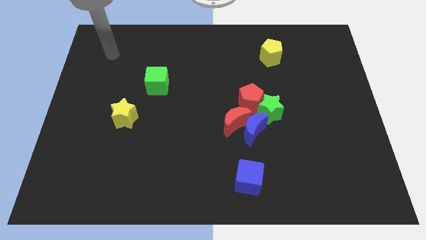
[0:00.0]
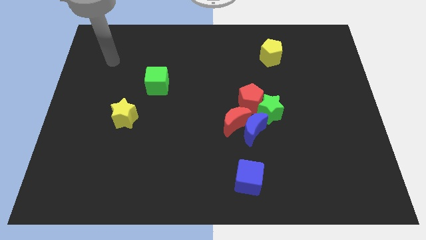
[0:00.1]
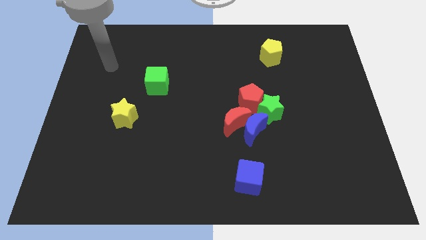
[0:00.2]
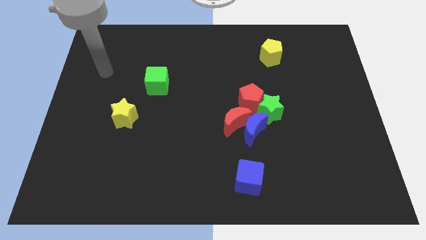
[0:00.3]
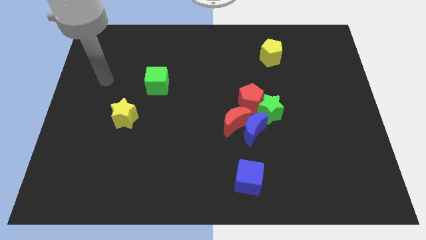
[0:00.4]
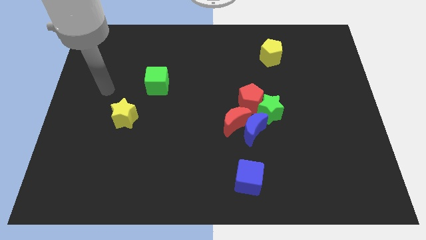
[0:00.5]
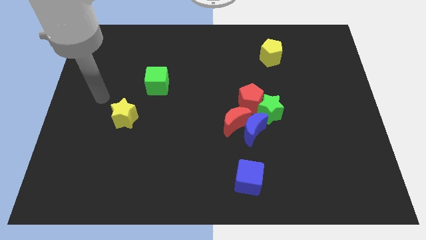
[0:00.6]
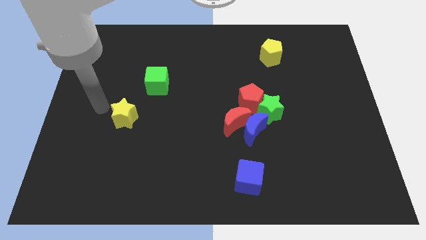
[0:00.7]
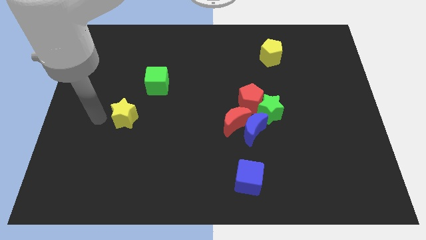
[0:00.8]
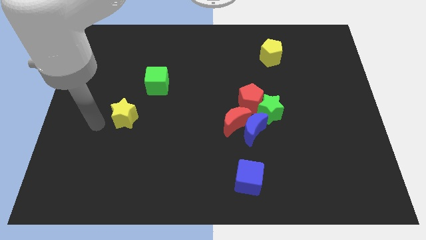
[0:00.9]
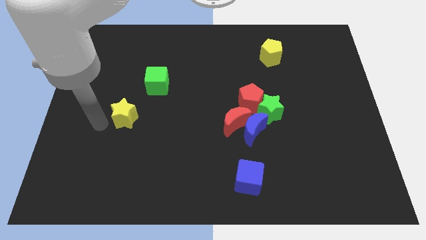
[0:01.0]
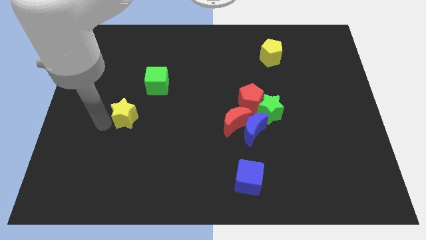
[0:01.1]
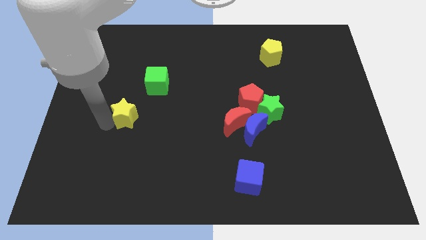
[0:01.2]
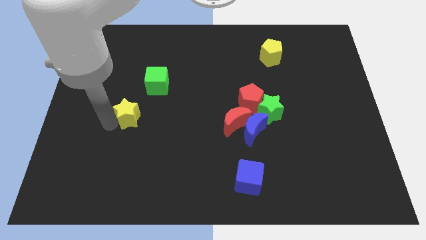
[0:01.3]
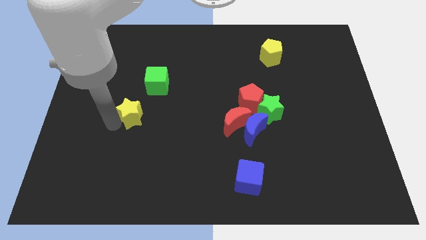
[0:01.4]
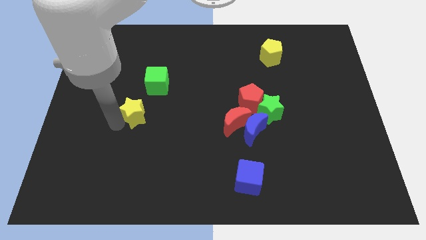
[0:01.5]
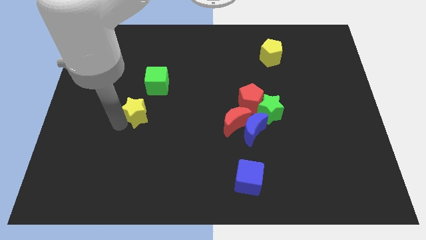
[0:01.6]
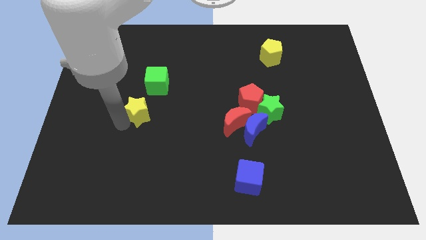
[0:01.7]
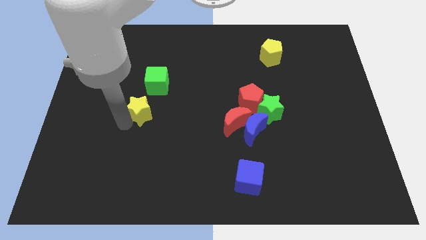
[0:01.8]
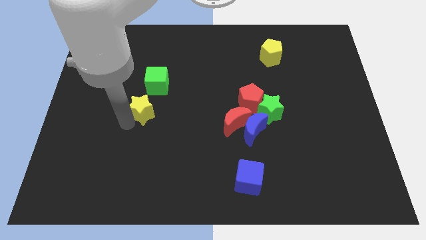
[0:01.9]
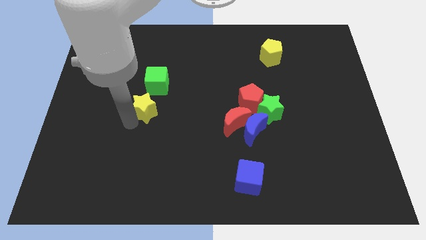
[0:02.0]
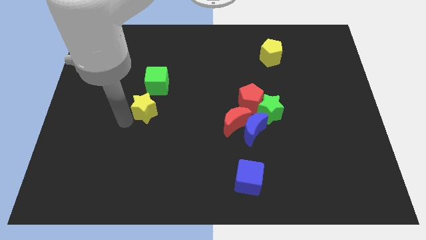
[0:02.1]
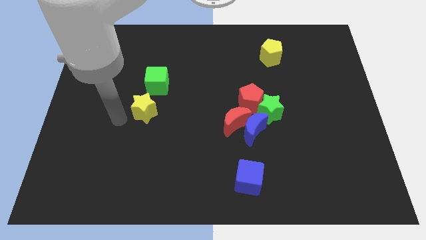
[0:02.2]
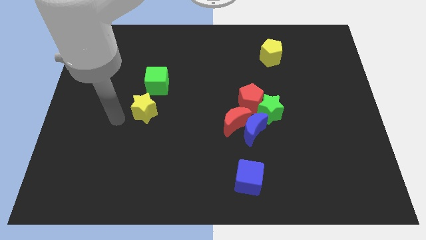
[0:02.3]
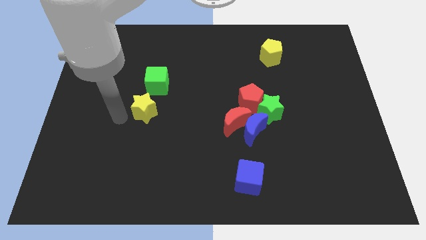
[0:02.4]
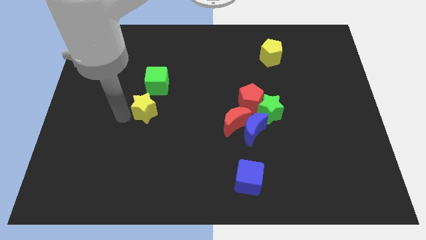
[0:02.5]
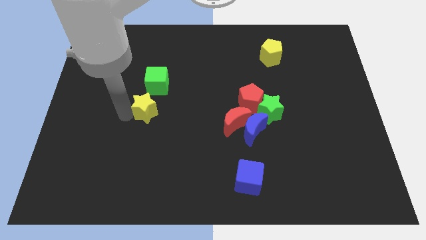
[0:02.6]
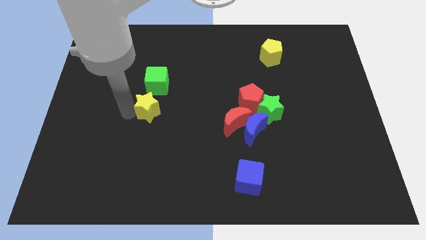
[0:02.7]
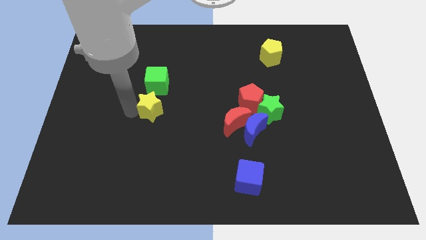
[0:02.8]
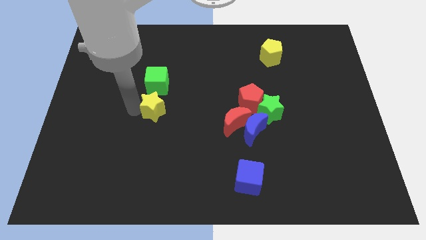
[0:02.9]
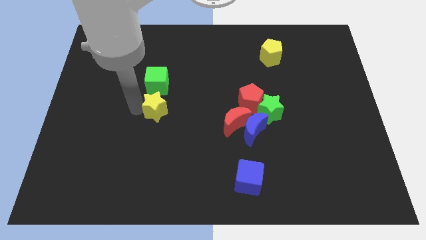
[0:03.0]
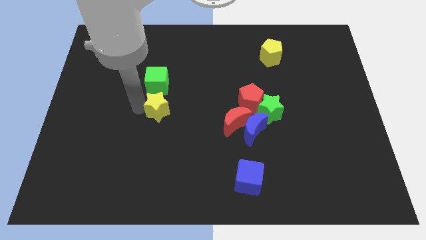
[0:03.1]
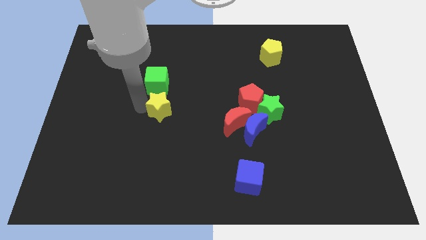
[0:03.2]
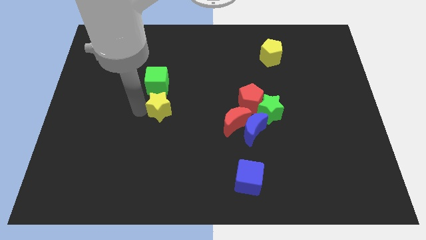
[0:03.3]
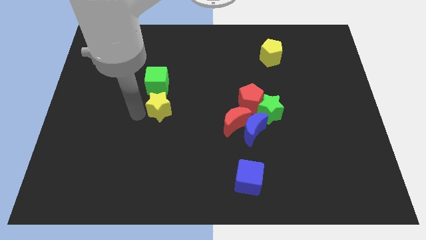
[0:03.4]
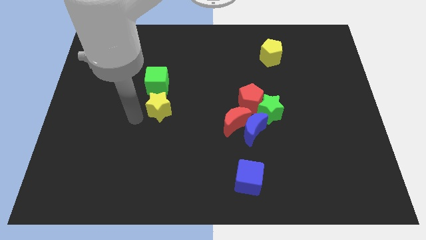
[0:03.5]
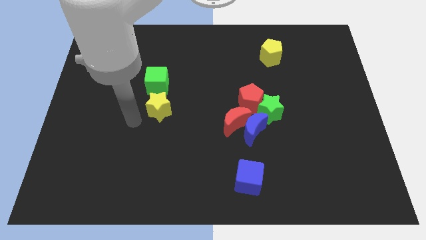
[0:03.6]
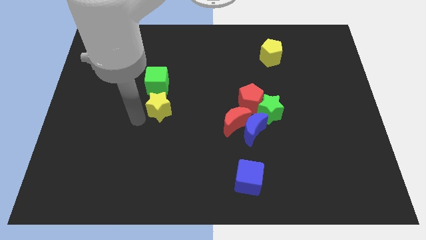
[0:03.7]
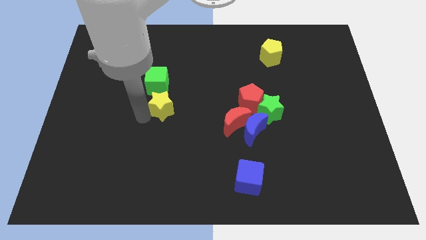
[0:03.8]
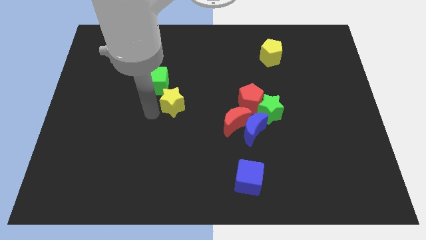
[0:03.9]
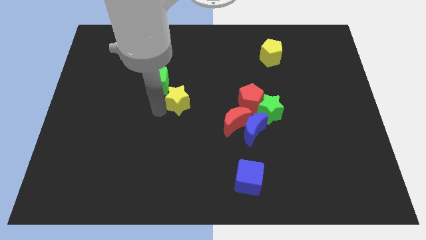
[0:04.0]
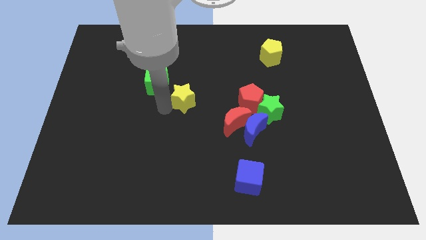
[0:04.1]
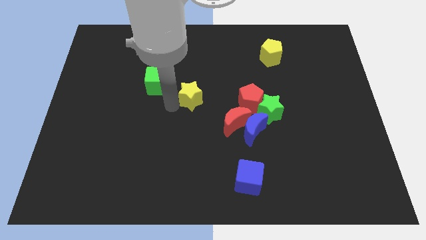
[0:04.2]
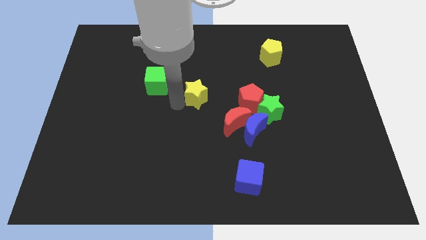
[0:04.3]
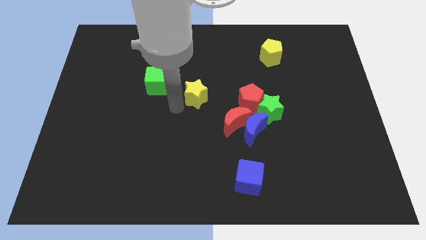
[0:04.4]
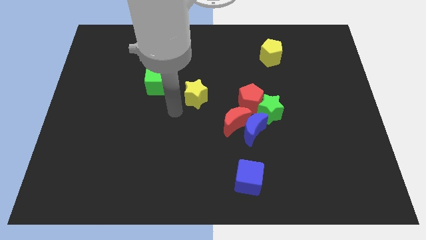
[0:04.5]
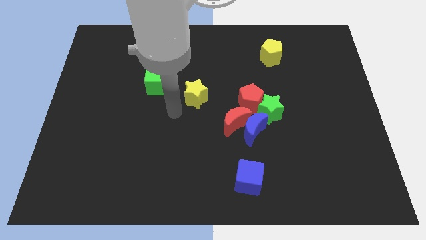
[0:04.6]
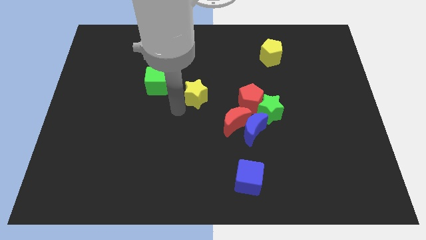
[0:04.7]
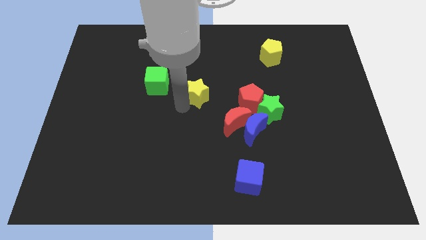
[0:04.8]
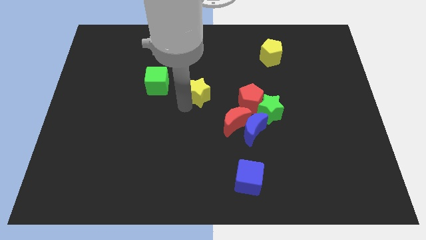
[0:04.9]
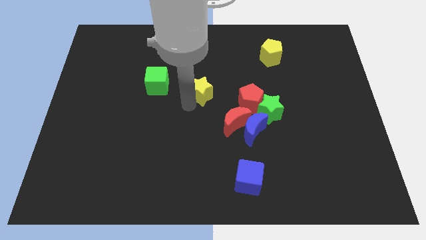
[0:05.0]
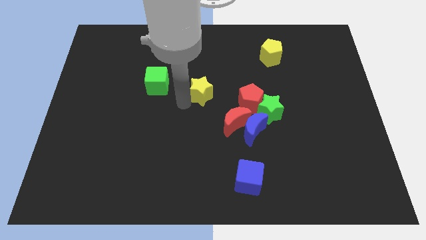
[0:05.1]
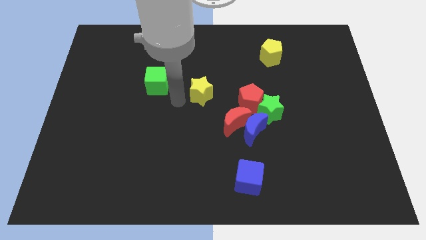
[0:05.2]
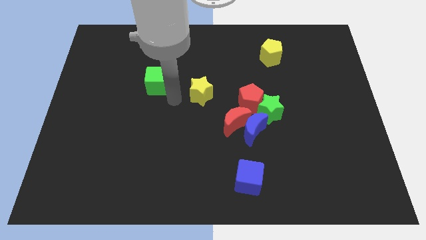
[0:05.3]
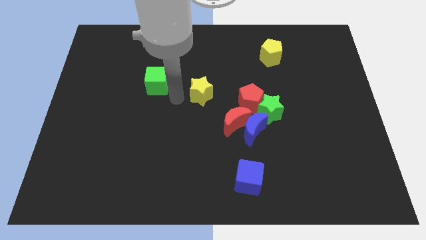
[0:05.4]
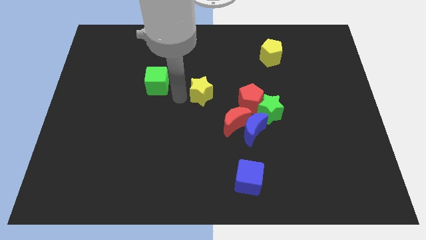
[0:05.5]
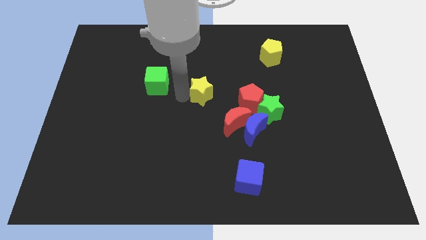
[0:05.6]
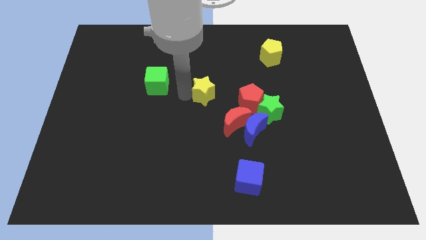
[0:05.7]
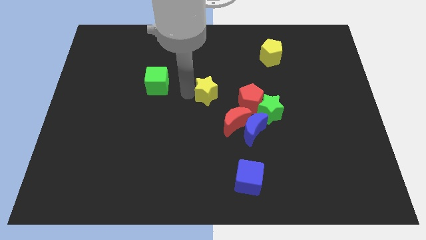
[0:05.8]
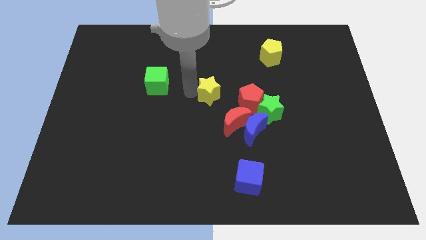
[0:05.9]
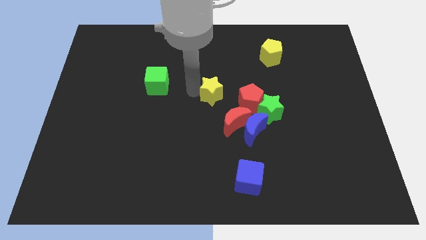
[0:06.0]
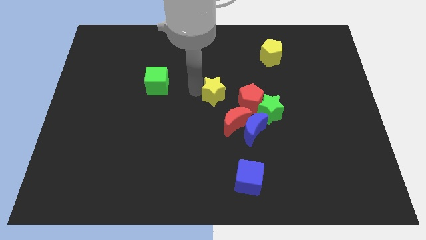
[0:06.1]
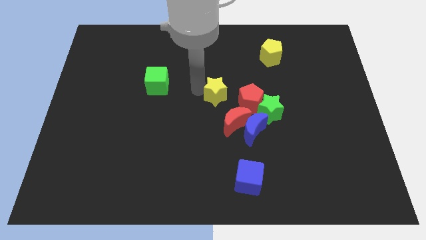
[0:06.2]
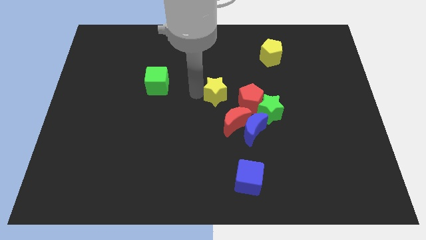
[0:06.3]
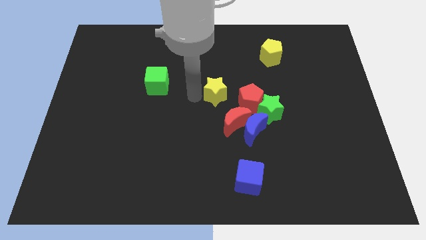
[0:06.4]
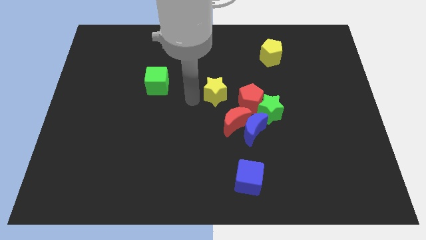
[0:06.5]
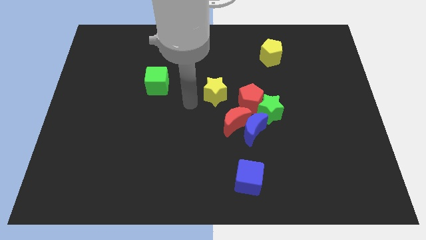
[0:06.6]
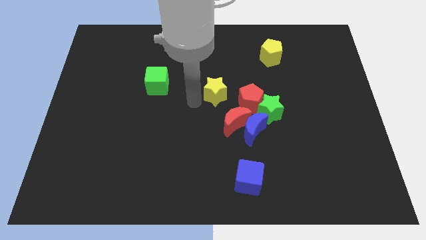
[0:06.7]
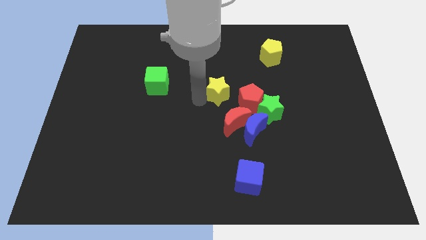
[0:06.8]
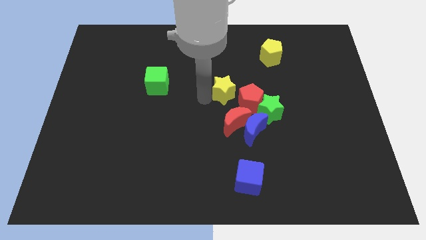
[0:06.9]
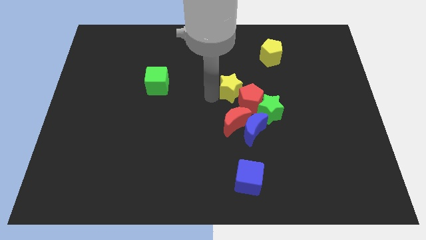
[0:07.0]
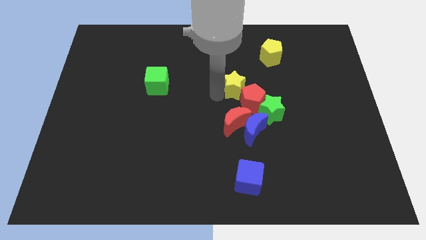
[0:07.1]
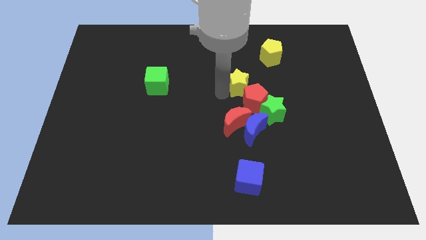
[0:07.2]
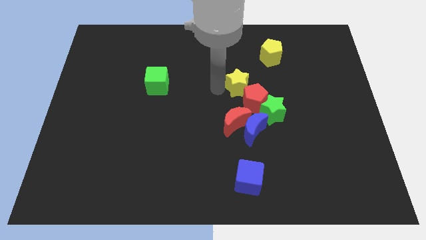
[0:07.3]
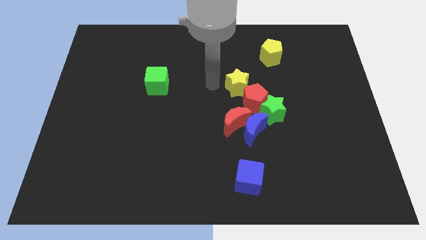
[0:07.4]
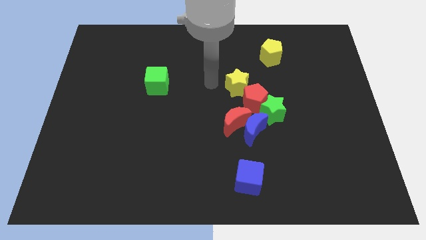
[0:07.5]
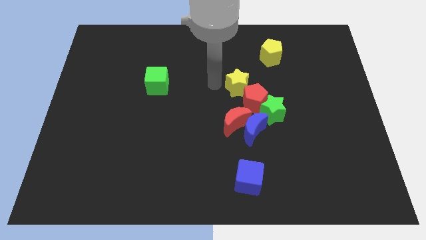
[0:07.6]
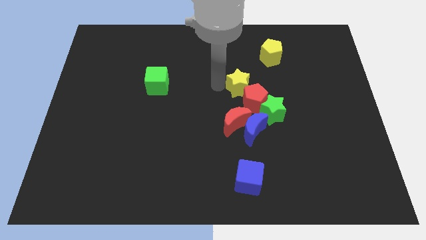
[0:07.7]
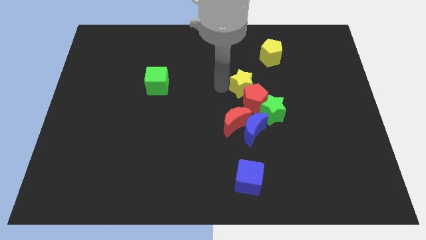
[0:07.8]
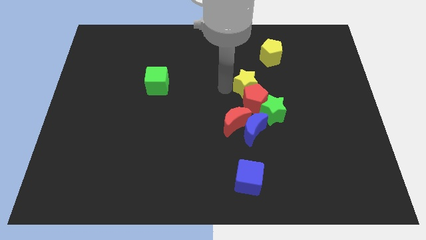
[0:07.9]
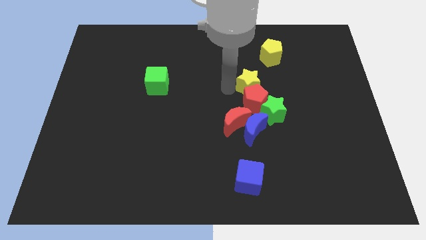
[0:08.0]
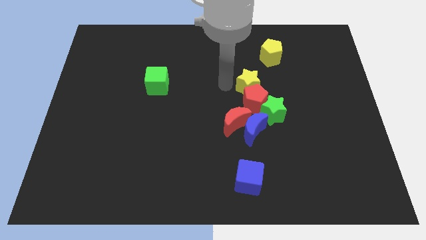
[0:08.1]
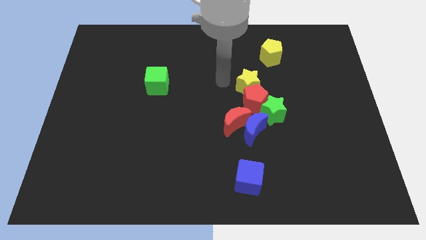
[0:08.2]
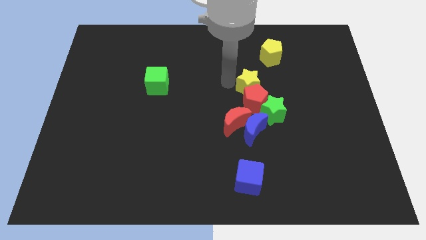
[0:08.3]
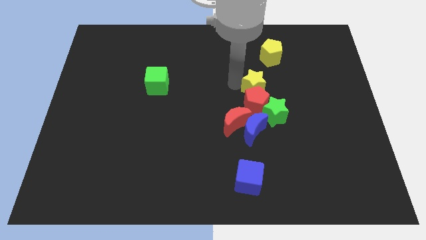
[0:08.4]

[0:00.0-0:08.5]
slide the yellow star diagonally up and to the right of the red moon
